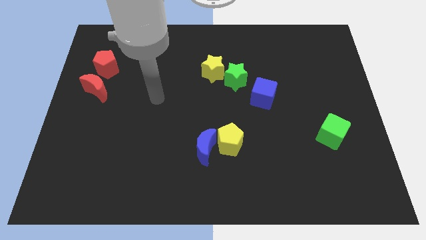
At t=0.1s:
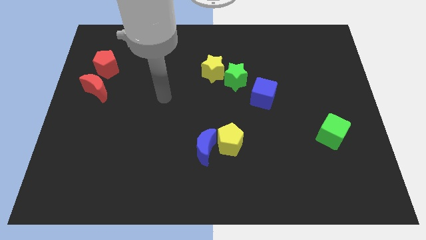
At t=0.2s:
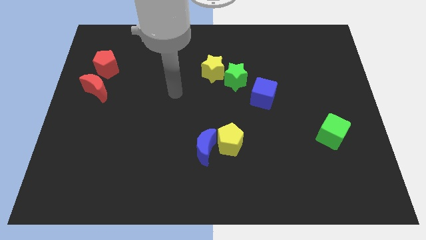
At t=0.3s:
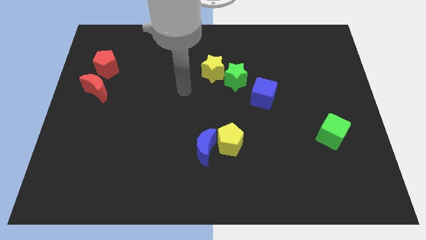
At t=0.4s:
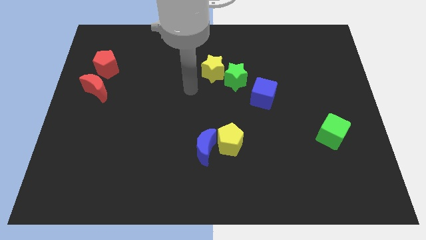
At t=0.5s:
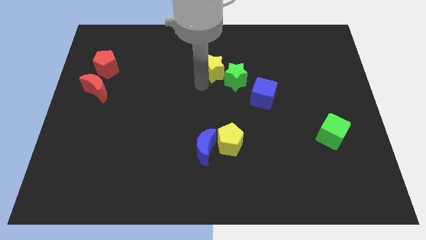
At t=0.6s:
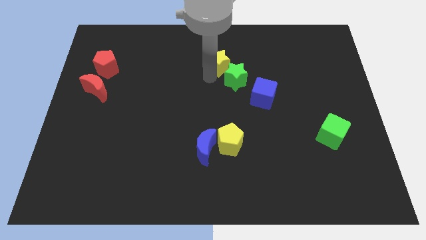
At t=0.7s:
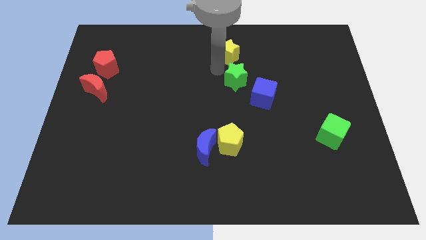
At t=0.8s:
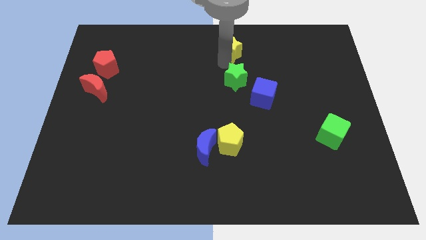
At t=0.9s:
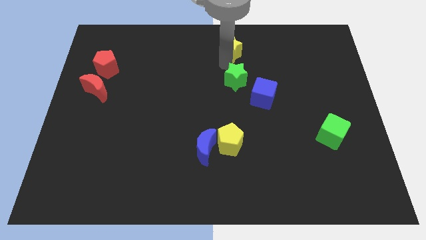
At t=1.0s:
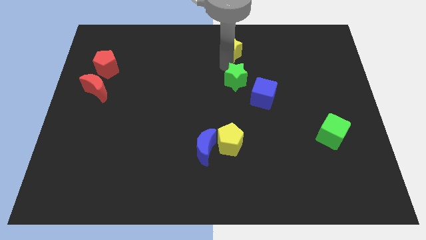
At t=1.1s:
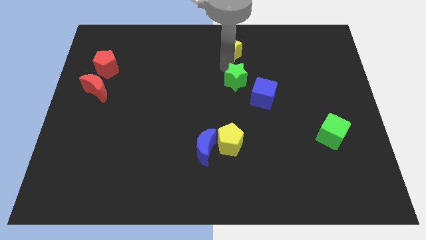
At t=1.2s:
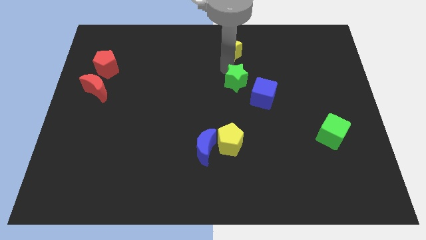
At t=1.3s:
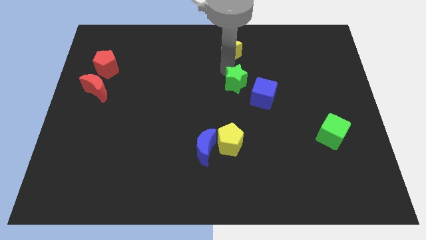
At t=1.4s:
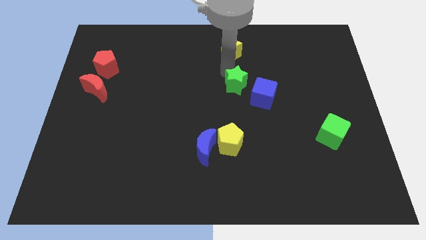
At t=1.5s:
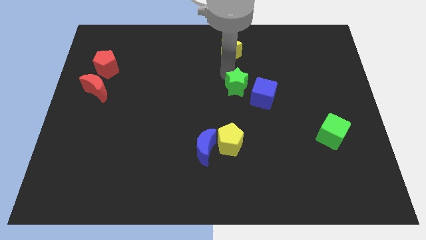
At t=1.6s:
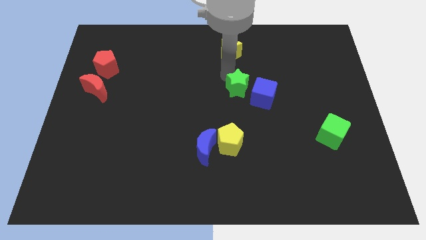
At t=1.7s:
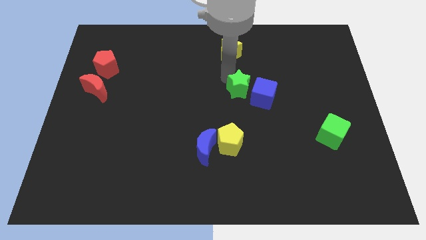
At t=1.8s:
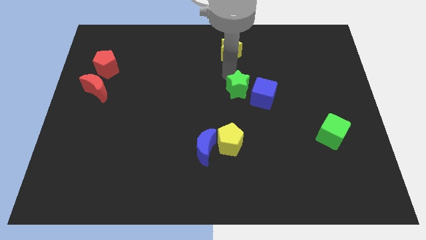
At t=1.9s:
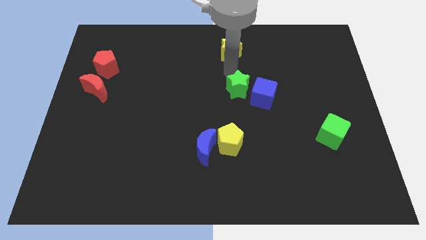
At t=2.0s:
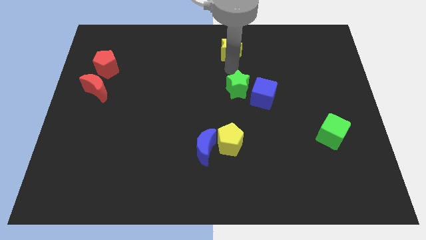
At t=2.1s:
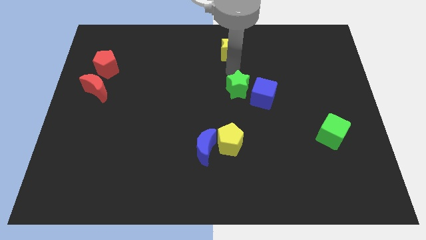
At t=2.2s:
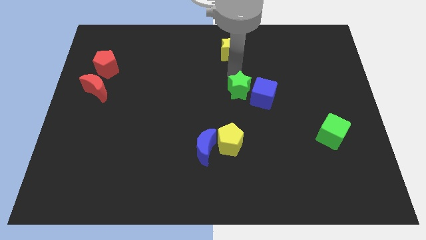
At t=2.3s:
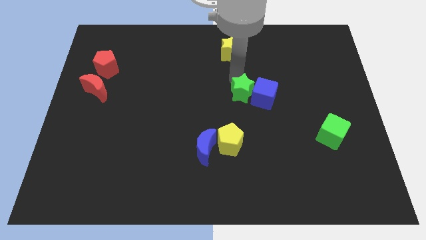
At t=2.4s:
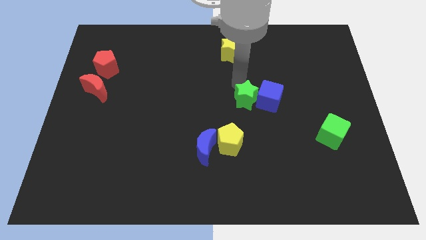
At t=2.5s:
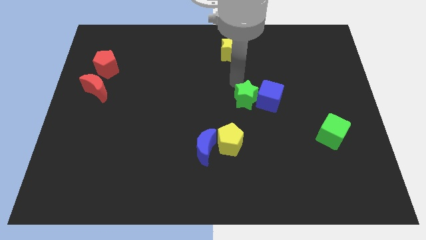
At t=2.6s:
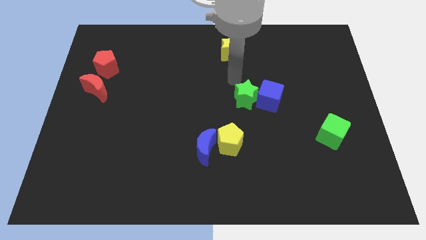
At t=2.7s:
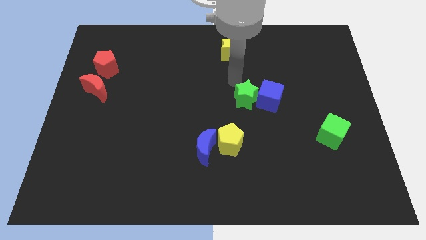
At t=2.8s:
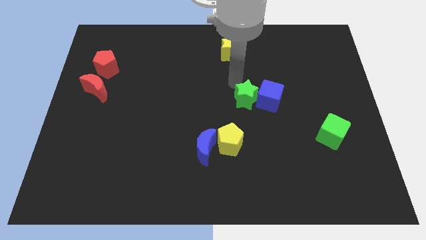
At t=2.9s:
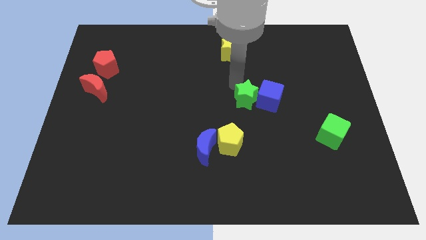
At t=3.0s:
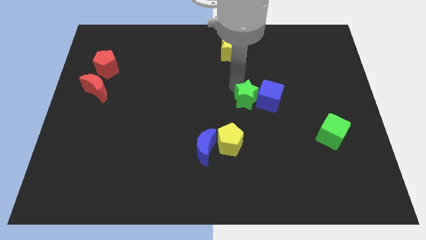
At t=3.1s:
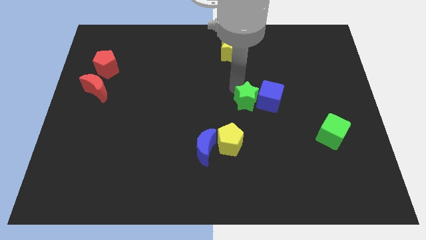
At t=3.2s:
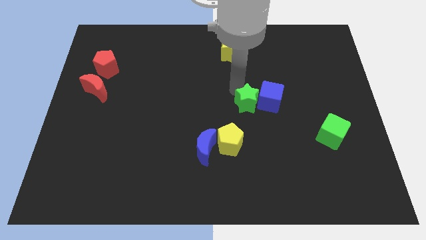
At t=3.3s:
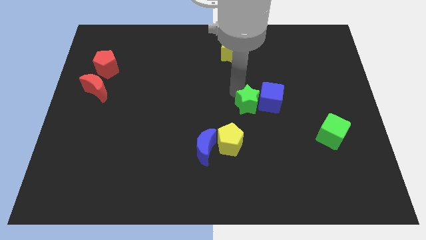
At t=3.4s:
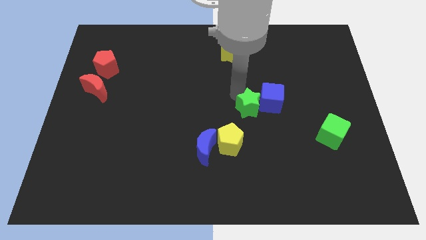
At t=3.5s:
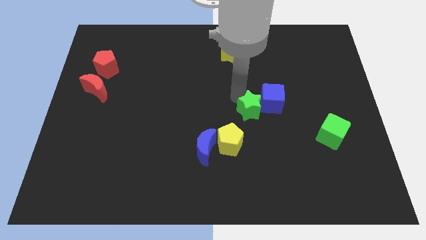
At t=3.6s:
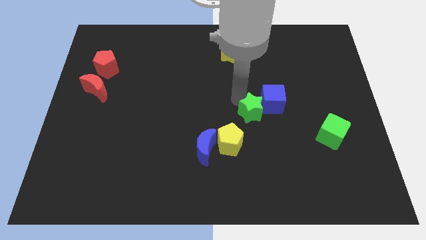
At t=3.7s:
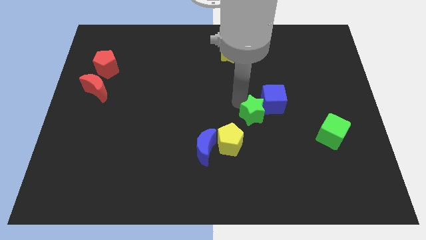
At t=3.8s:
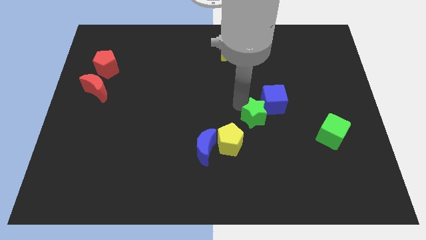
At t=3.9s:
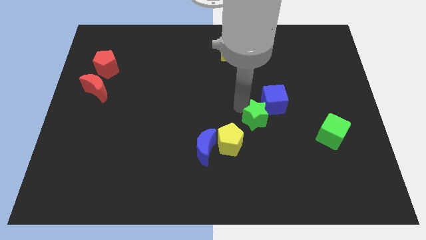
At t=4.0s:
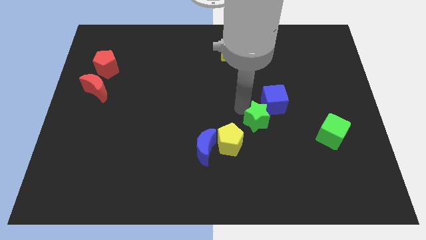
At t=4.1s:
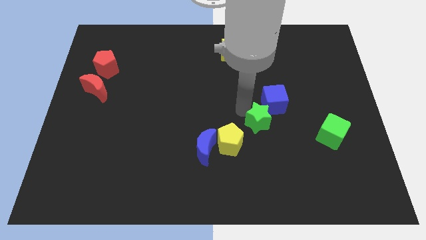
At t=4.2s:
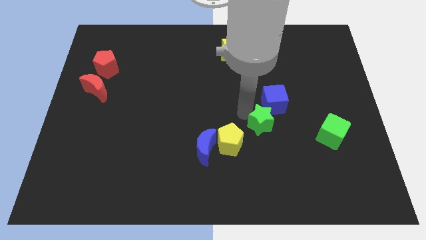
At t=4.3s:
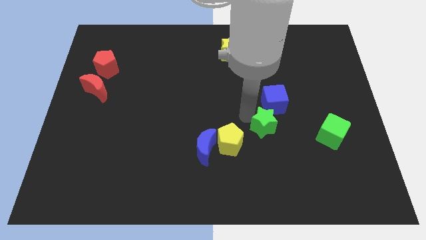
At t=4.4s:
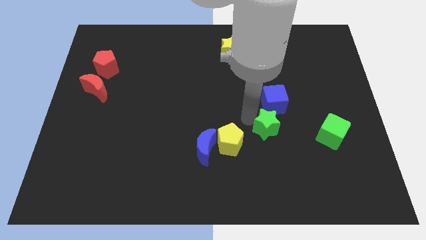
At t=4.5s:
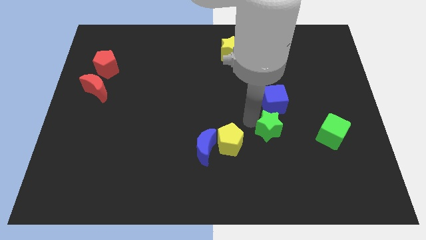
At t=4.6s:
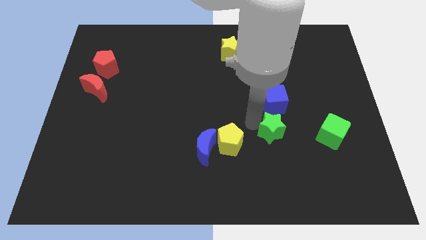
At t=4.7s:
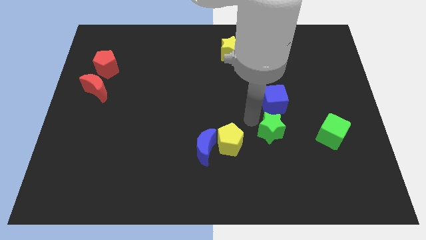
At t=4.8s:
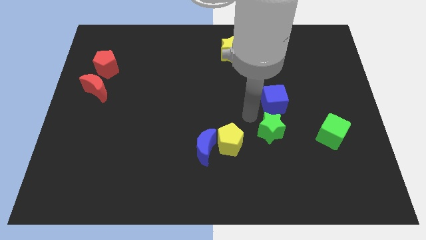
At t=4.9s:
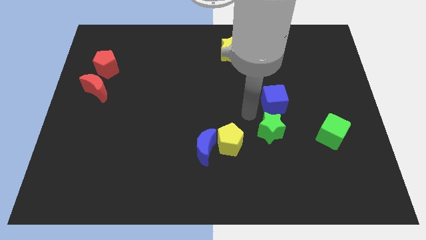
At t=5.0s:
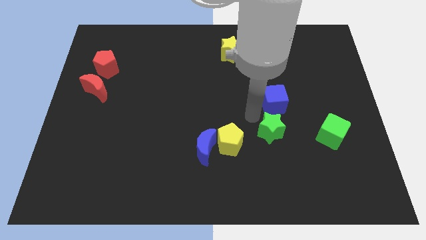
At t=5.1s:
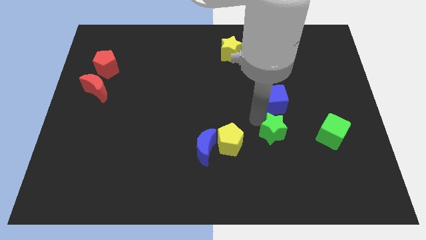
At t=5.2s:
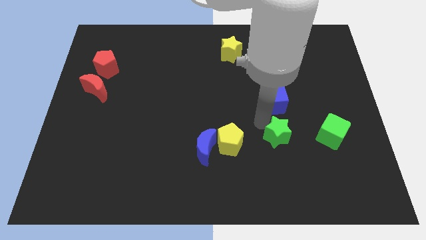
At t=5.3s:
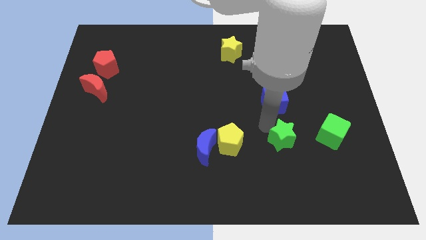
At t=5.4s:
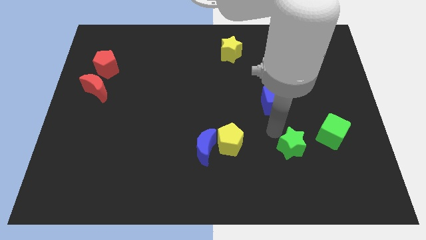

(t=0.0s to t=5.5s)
move the green star down and right diagonally

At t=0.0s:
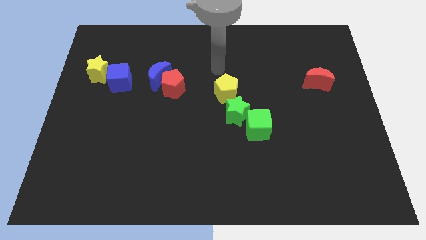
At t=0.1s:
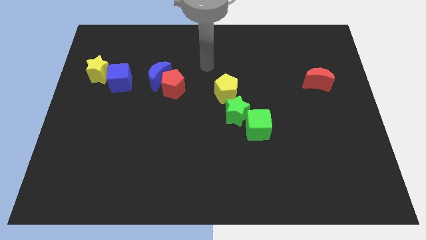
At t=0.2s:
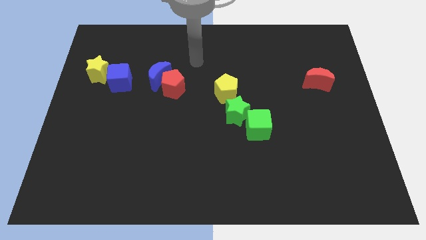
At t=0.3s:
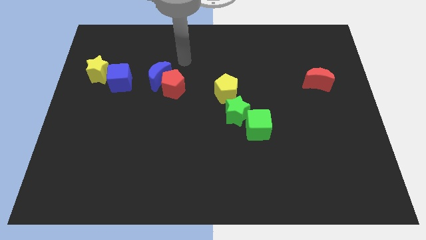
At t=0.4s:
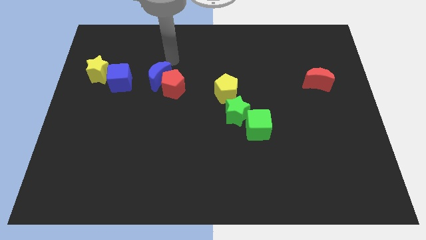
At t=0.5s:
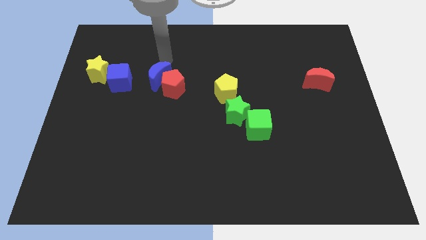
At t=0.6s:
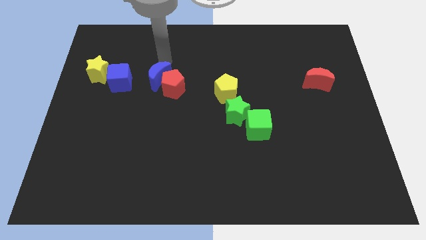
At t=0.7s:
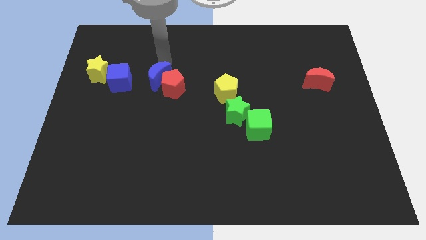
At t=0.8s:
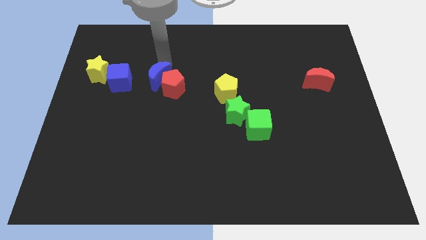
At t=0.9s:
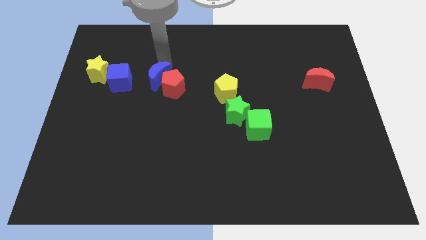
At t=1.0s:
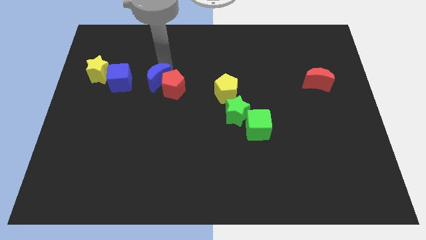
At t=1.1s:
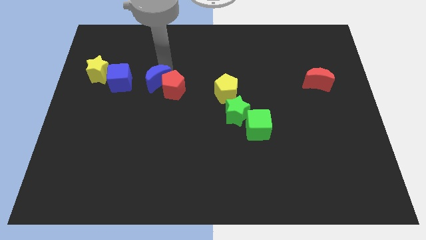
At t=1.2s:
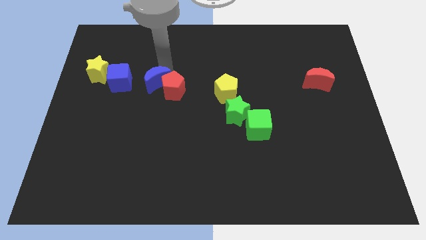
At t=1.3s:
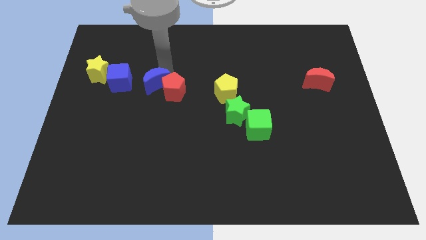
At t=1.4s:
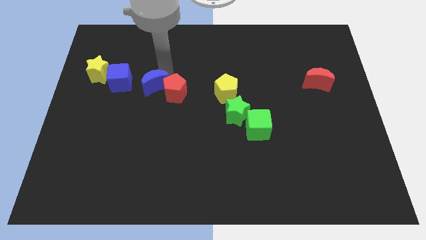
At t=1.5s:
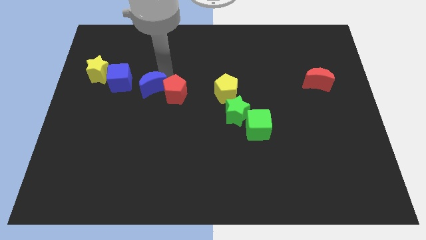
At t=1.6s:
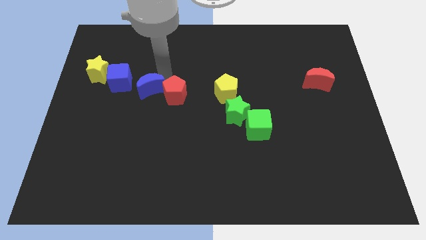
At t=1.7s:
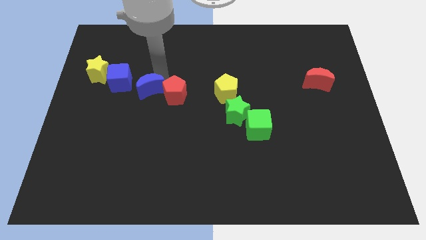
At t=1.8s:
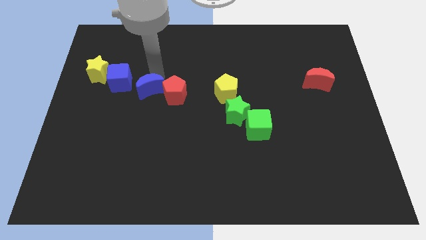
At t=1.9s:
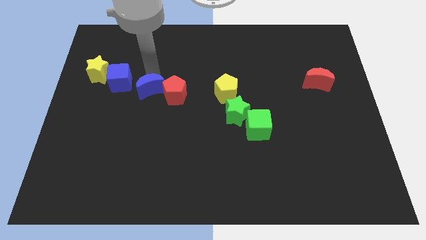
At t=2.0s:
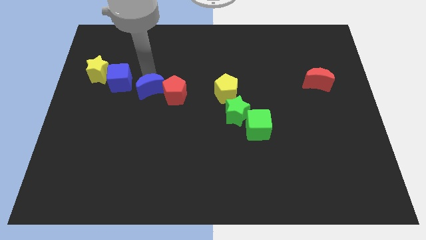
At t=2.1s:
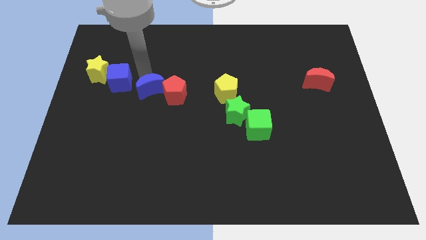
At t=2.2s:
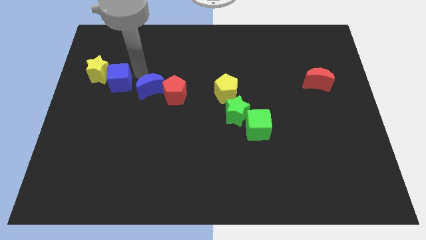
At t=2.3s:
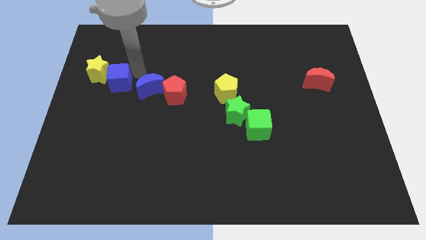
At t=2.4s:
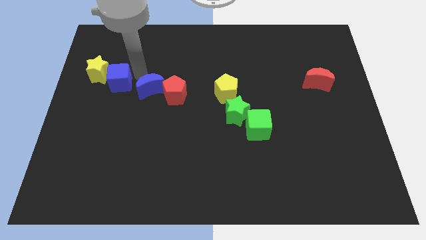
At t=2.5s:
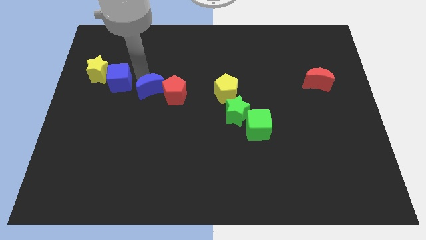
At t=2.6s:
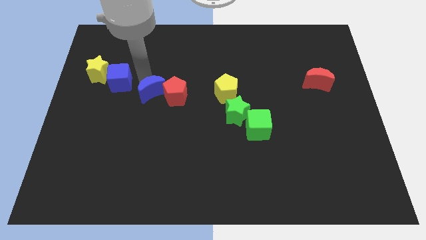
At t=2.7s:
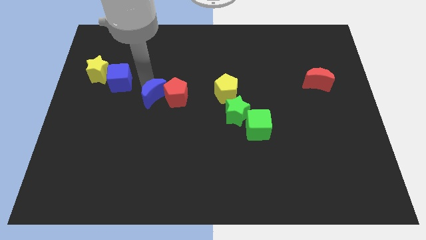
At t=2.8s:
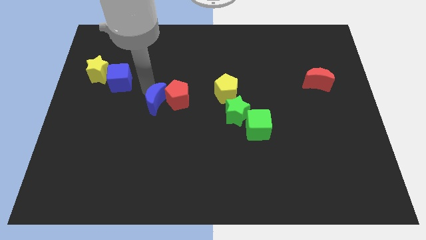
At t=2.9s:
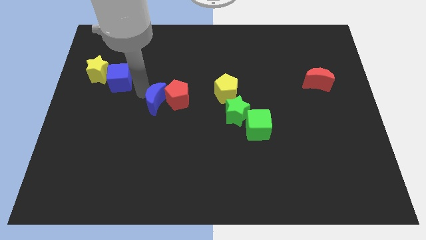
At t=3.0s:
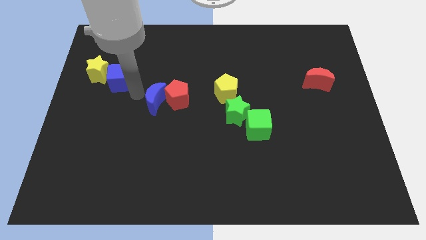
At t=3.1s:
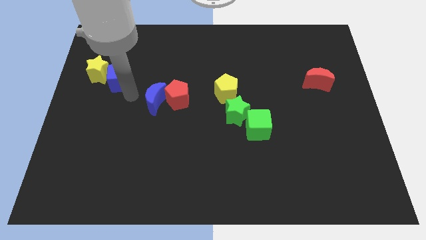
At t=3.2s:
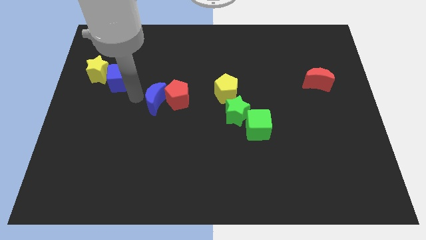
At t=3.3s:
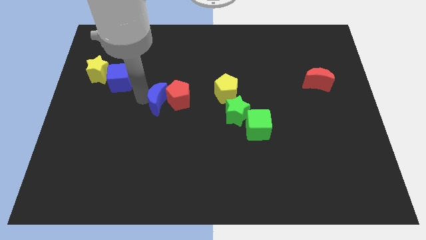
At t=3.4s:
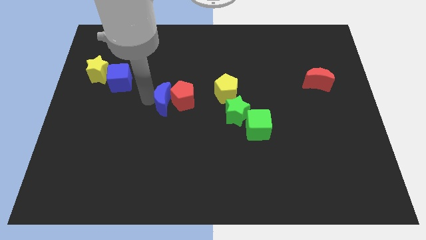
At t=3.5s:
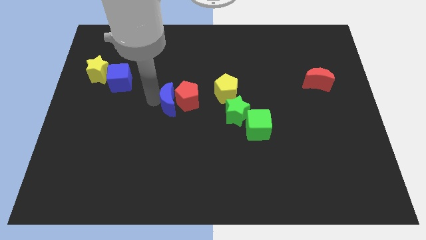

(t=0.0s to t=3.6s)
push the blue moon downwards and then to the right a little
